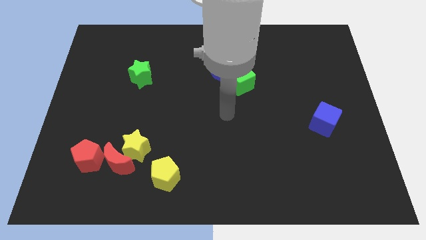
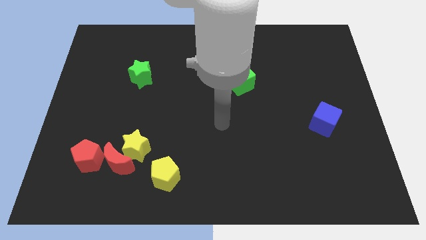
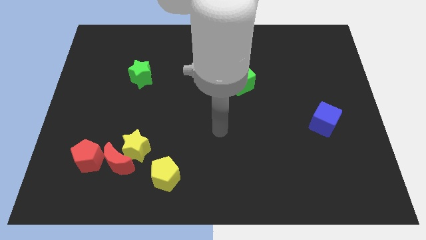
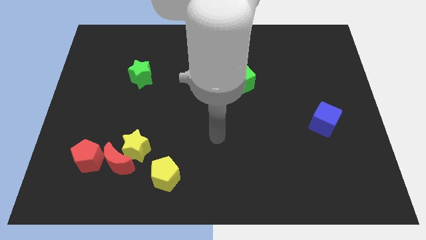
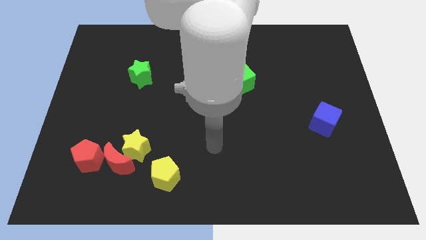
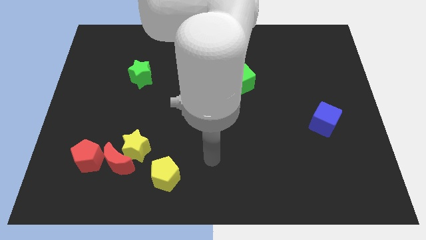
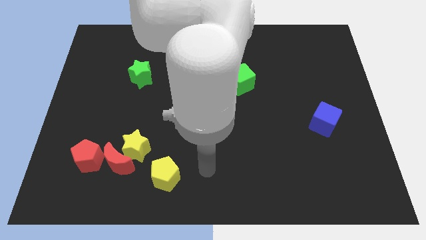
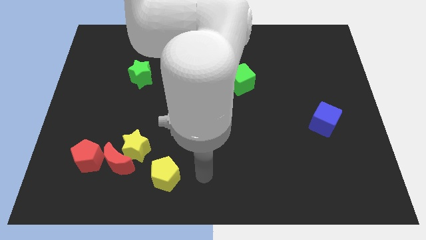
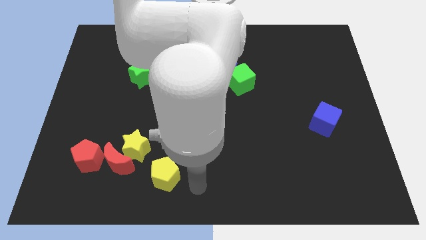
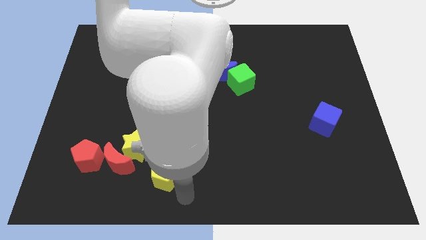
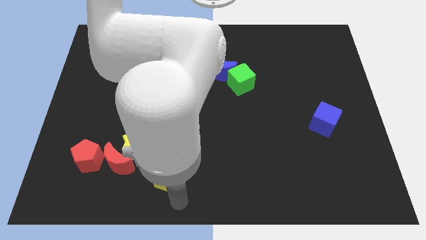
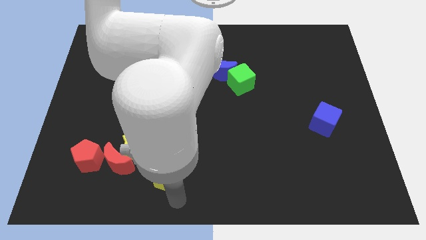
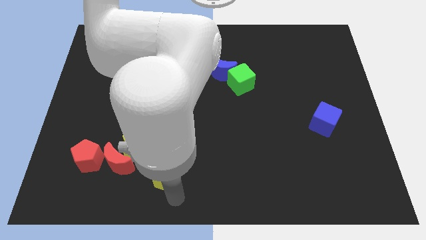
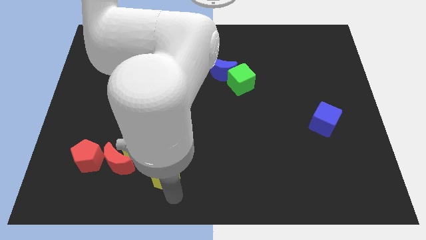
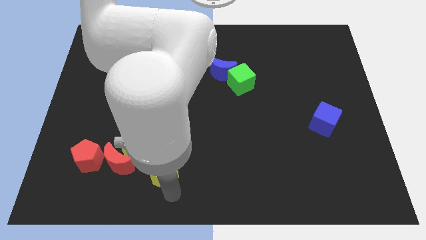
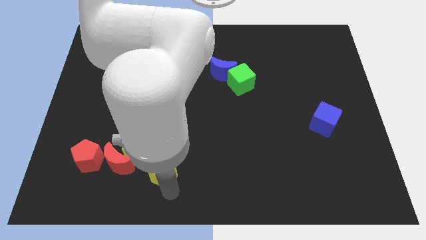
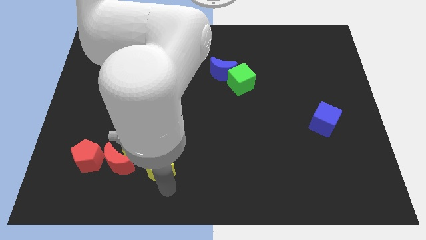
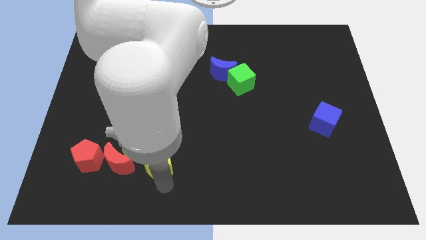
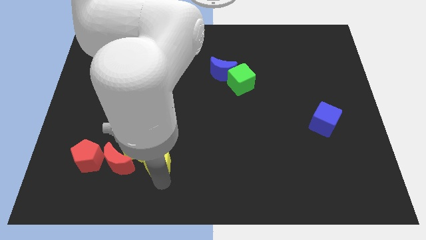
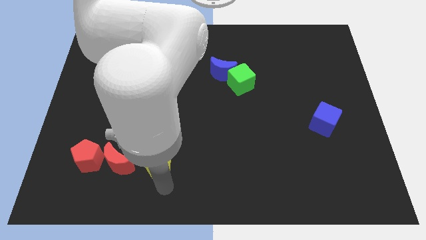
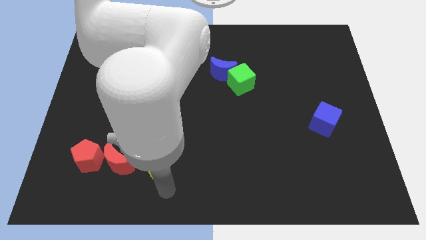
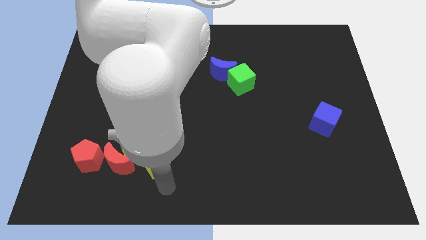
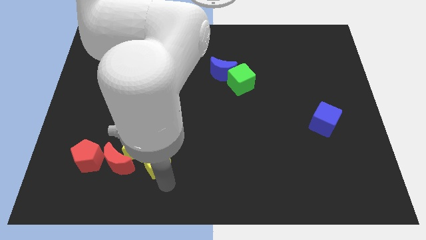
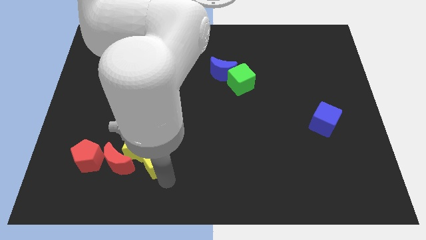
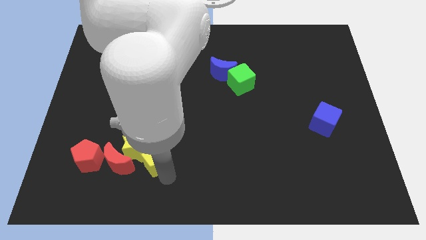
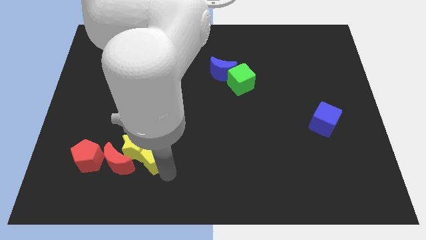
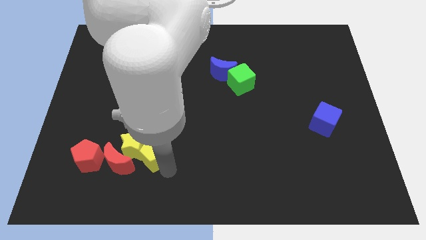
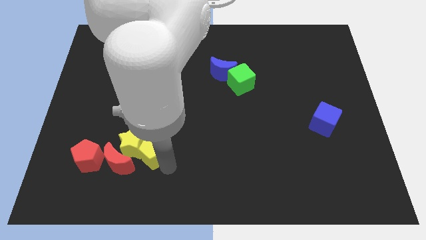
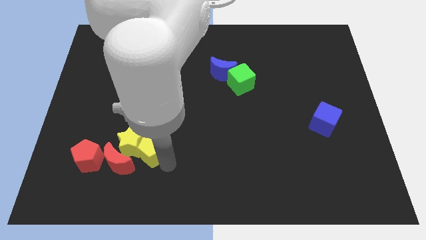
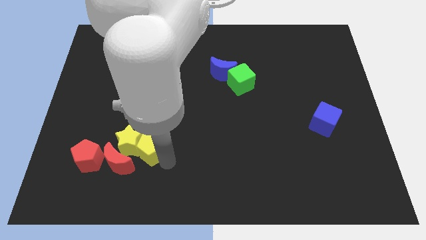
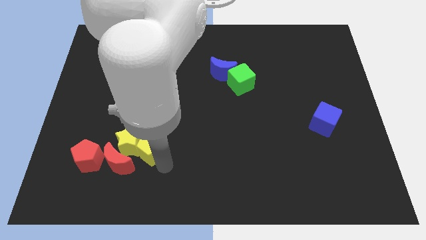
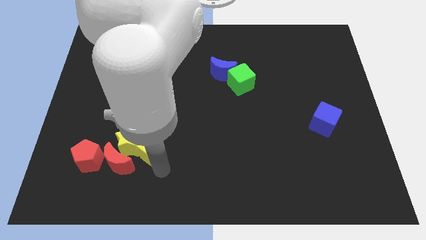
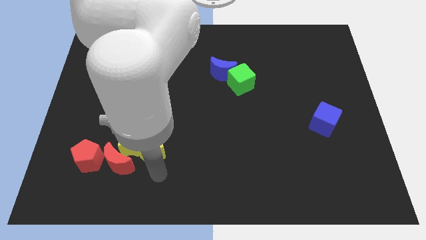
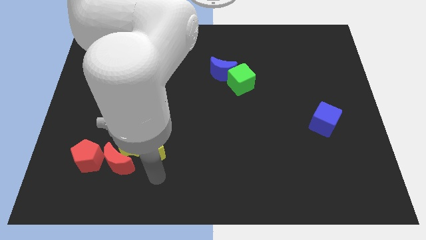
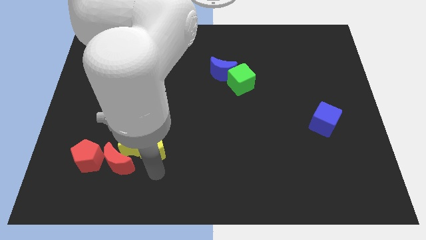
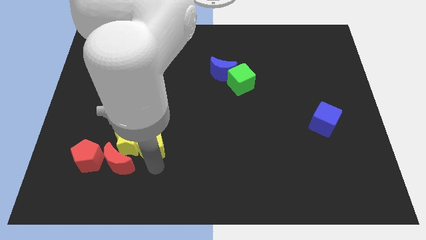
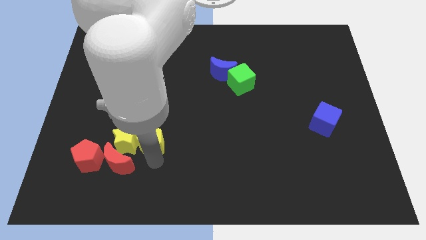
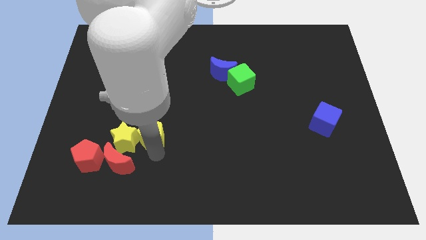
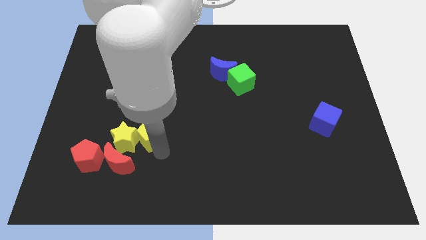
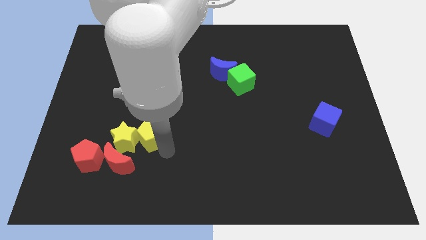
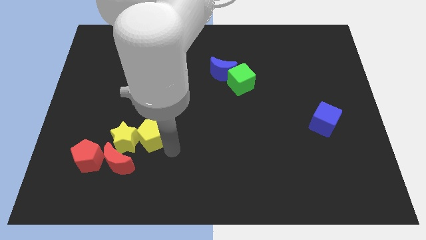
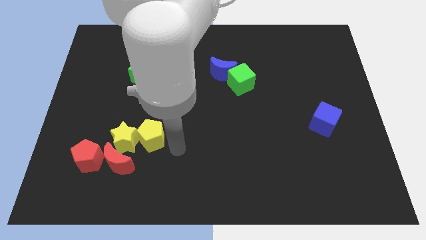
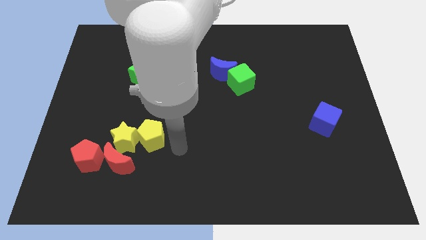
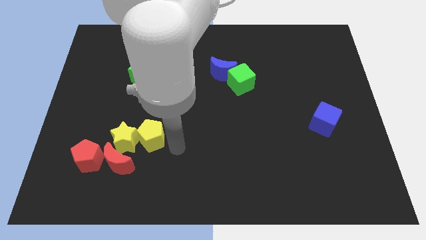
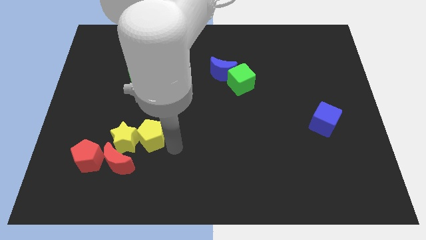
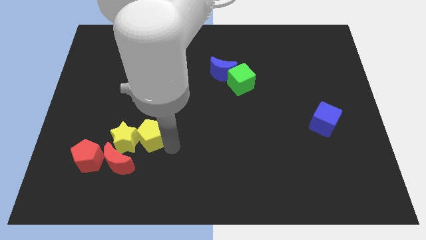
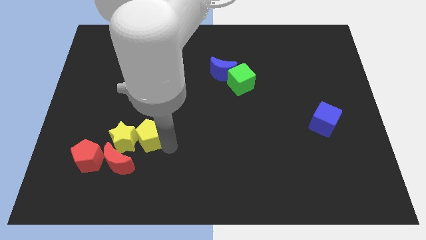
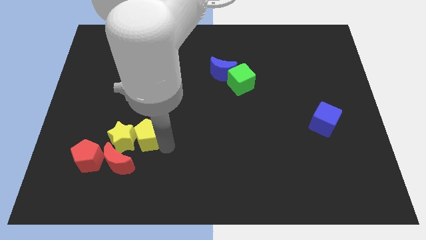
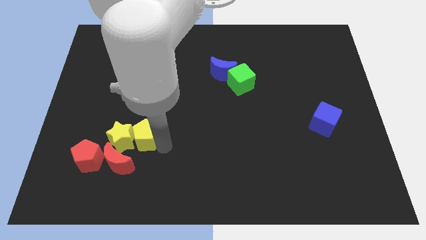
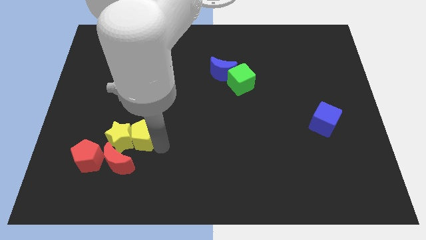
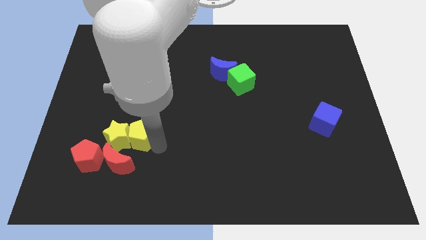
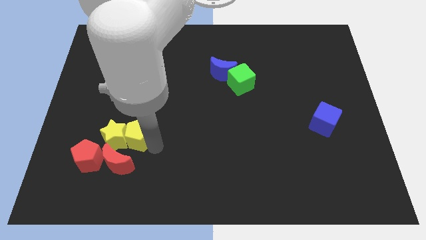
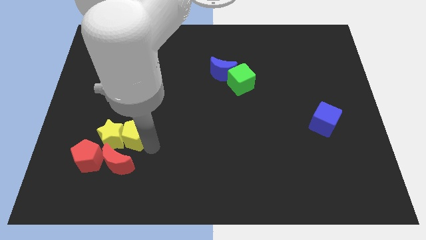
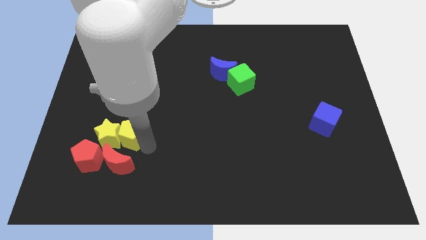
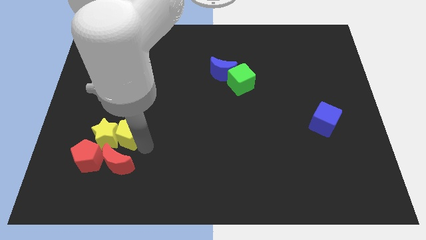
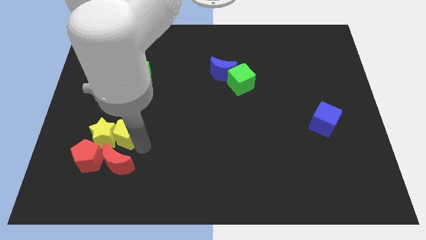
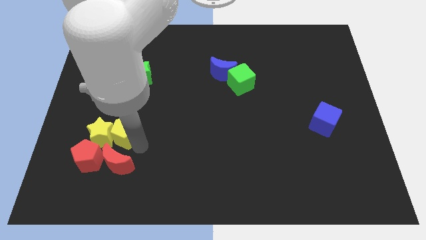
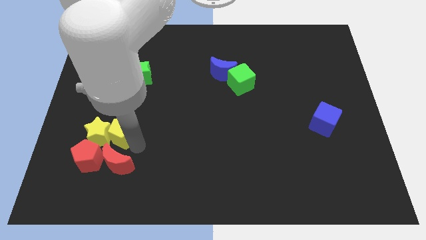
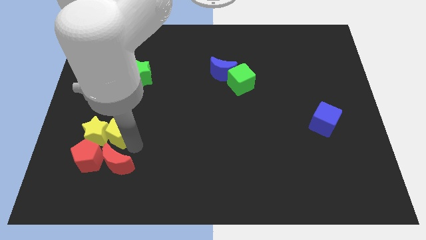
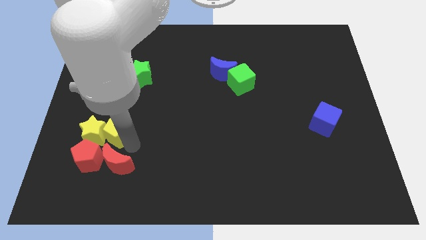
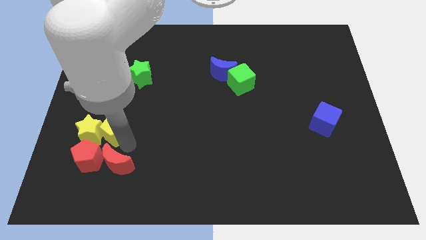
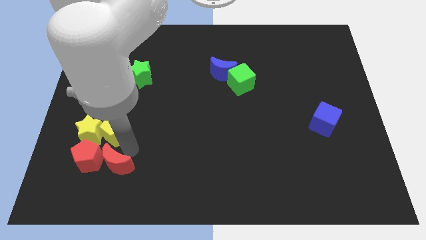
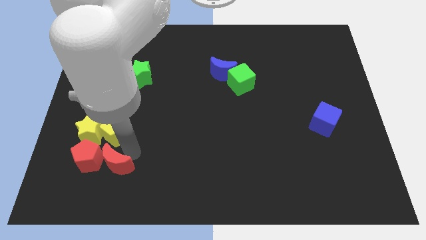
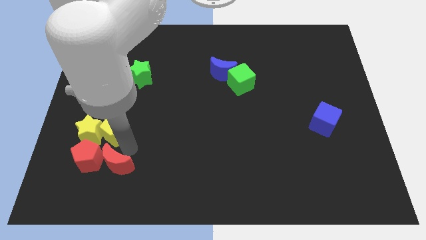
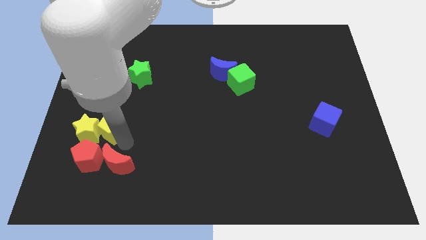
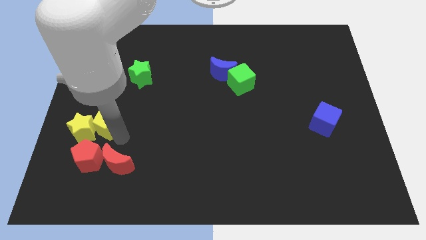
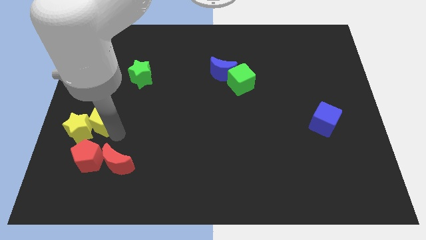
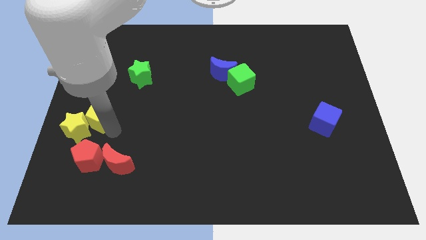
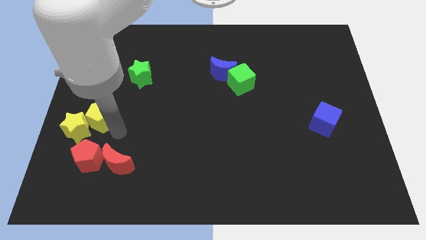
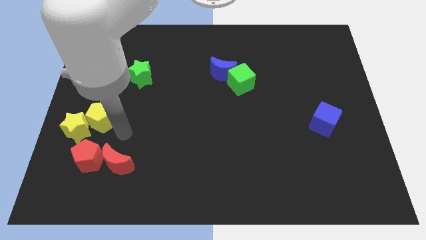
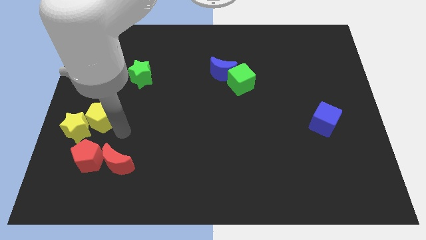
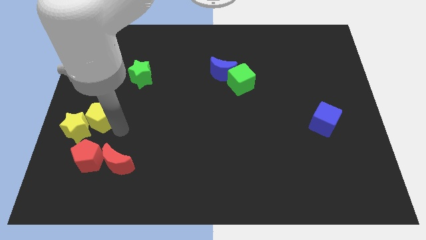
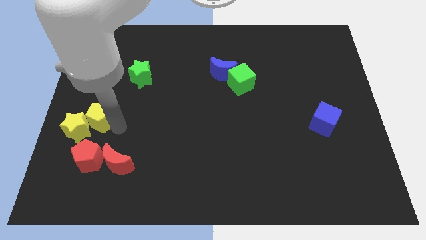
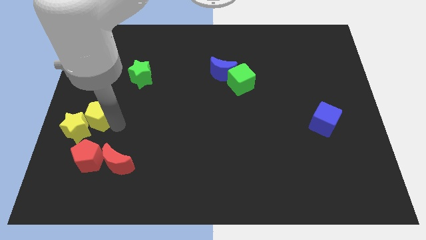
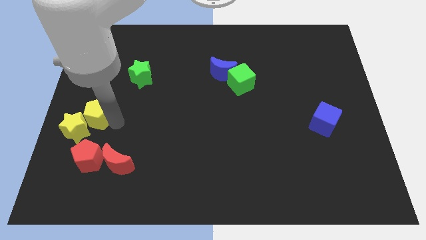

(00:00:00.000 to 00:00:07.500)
slide the yellow pentagon to the left side of the board
